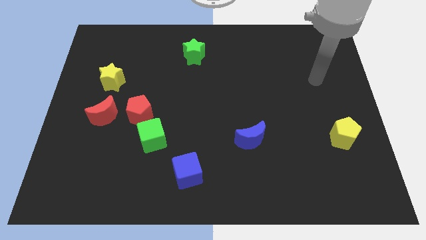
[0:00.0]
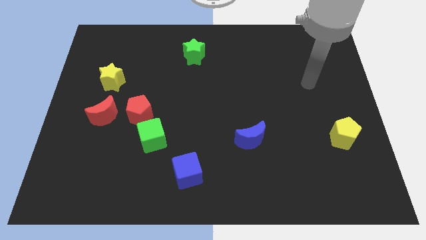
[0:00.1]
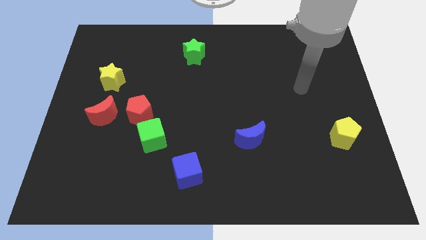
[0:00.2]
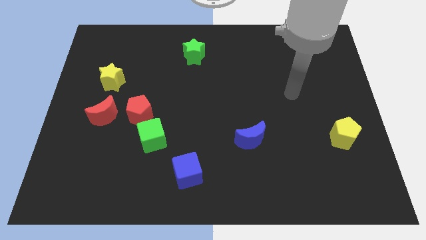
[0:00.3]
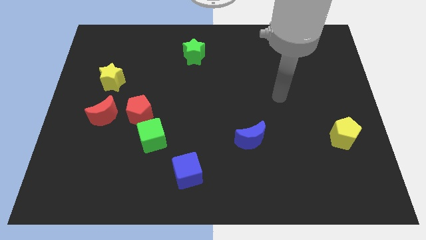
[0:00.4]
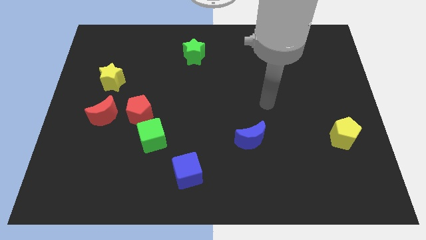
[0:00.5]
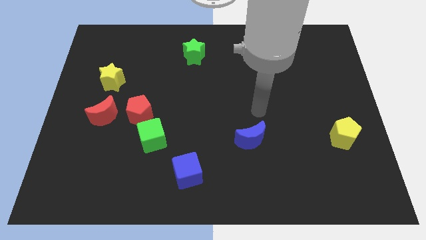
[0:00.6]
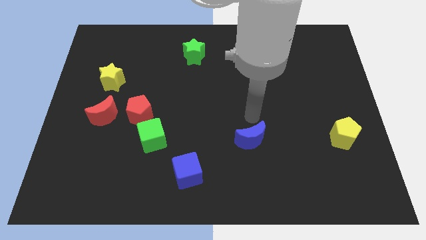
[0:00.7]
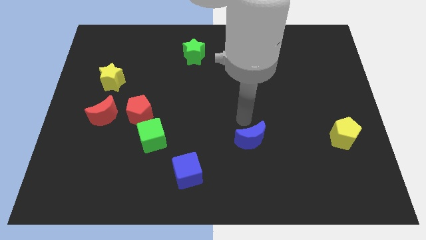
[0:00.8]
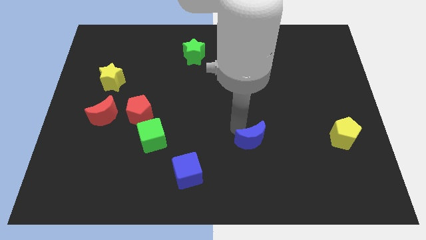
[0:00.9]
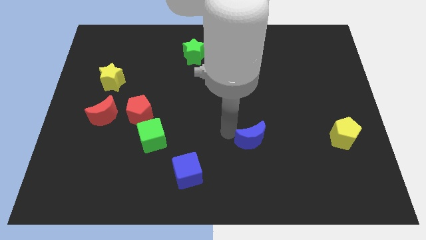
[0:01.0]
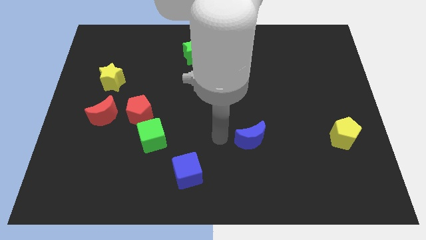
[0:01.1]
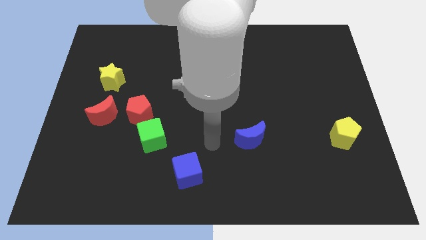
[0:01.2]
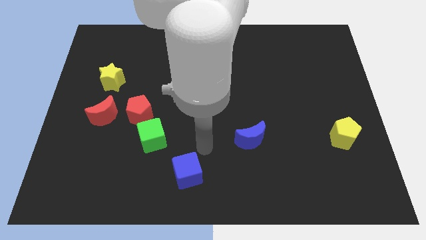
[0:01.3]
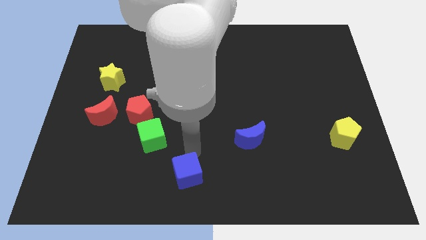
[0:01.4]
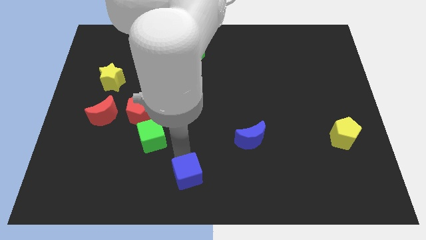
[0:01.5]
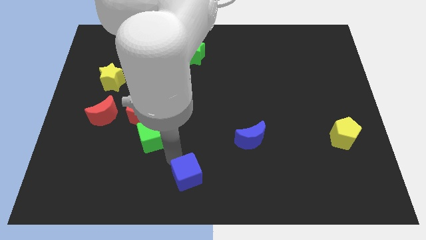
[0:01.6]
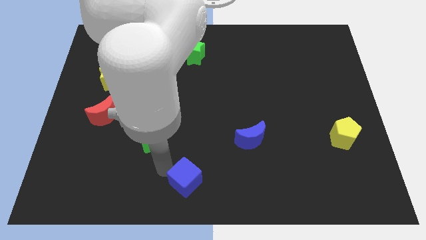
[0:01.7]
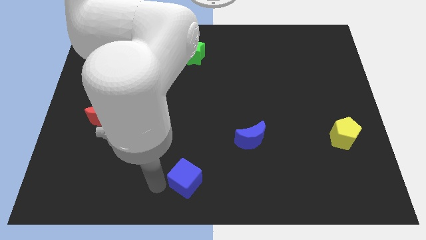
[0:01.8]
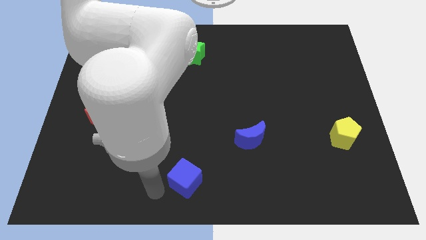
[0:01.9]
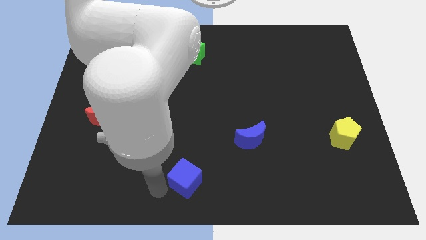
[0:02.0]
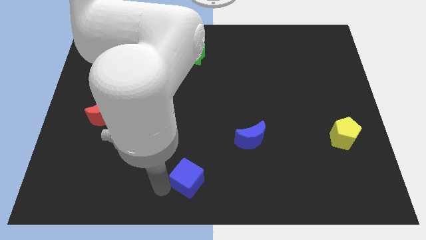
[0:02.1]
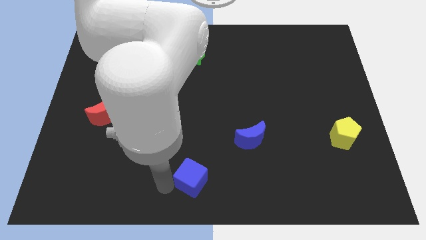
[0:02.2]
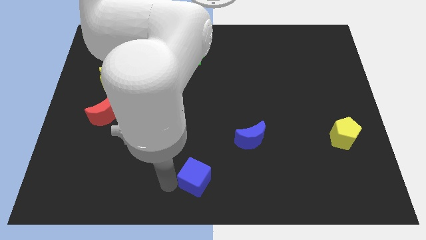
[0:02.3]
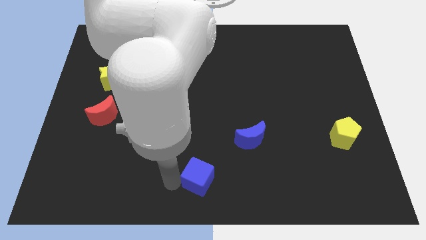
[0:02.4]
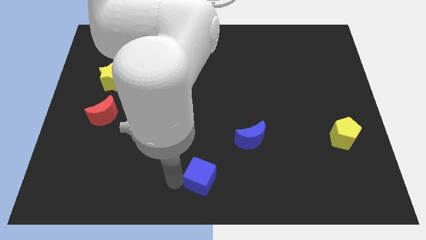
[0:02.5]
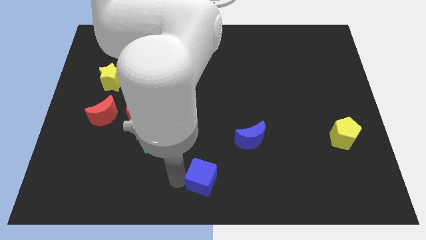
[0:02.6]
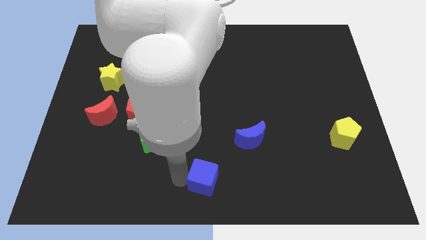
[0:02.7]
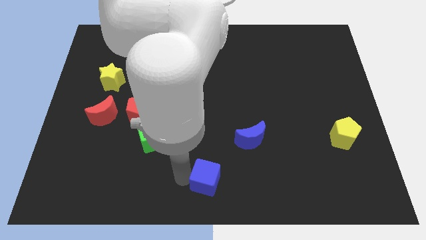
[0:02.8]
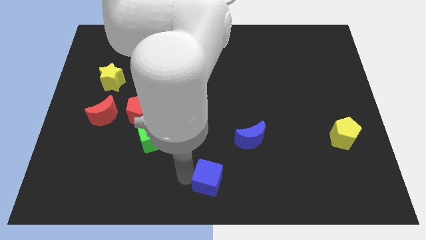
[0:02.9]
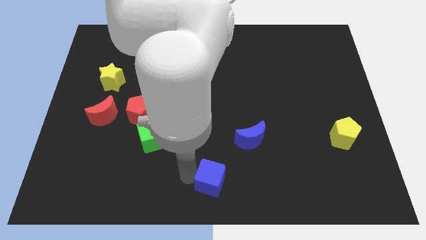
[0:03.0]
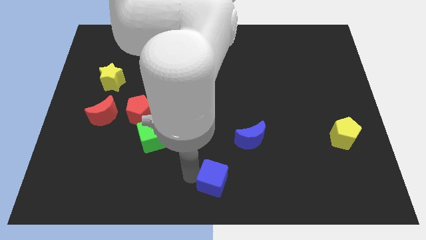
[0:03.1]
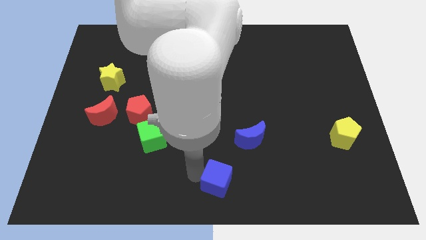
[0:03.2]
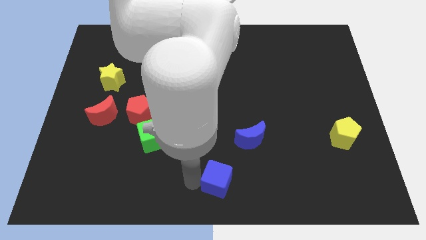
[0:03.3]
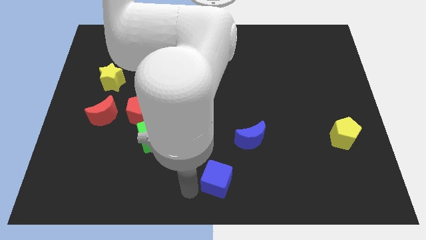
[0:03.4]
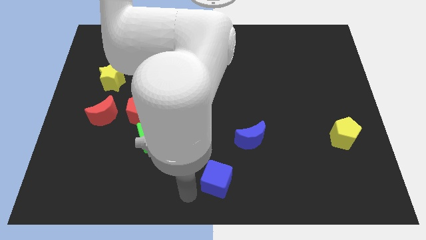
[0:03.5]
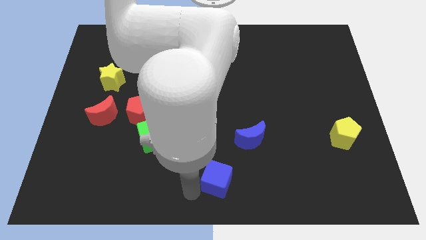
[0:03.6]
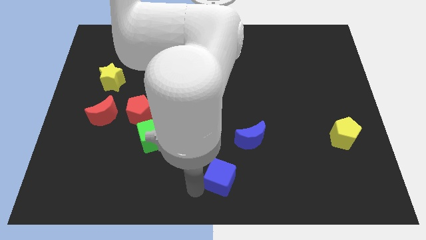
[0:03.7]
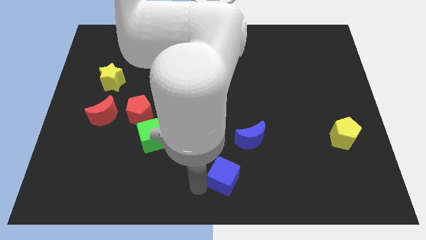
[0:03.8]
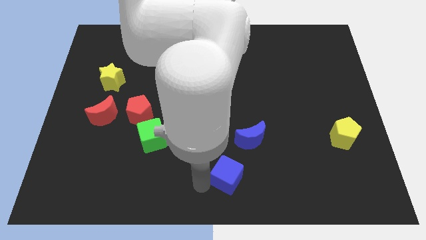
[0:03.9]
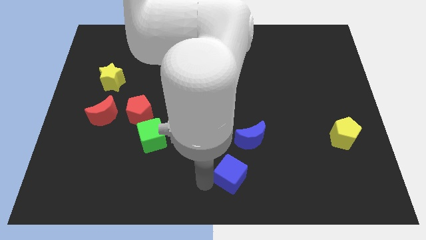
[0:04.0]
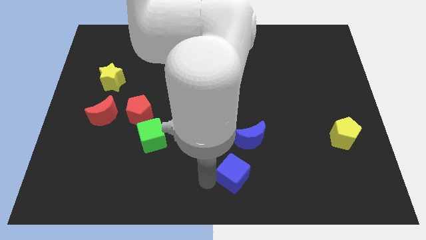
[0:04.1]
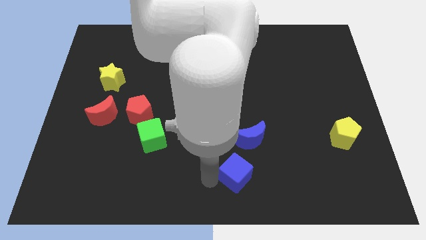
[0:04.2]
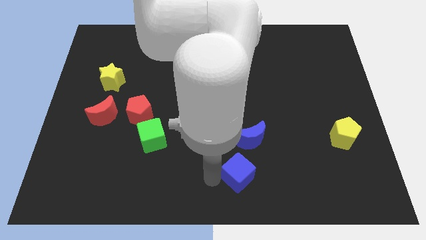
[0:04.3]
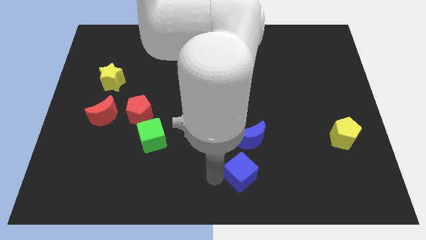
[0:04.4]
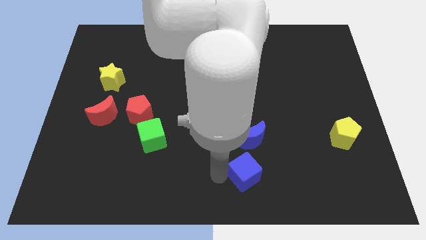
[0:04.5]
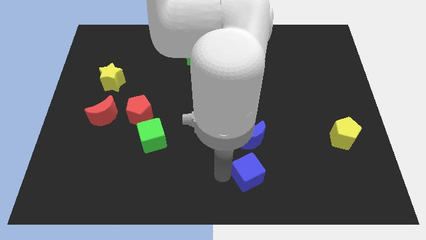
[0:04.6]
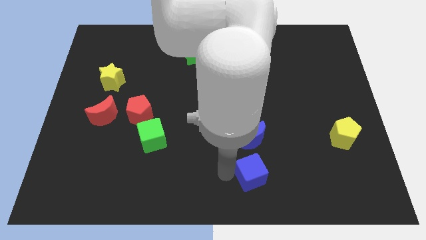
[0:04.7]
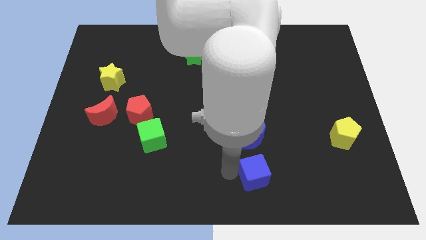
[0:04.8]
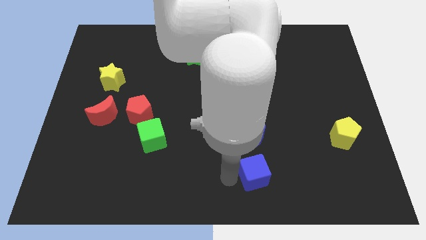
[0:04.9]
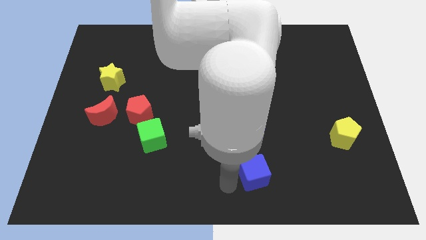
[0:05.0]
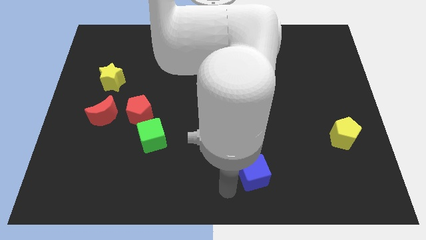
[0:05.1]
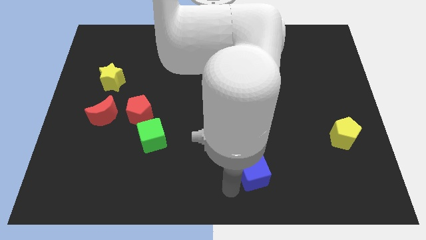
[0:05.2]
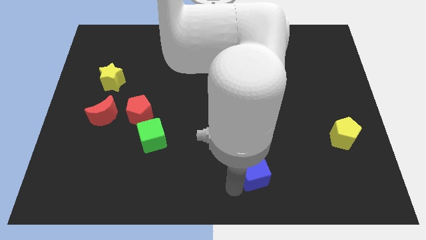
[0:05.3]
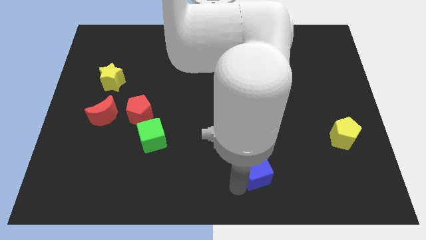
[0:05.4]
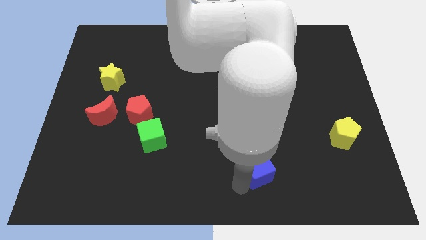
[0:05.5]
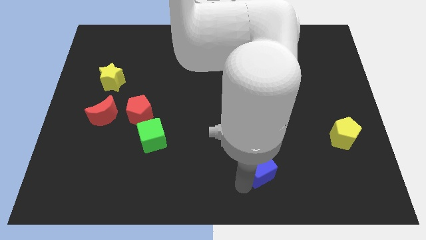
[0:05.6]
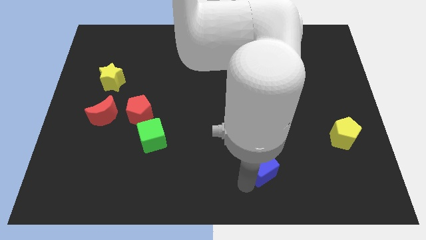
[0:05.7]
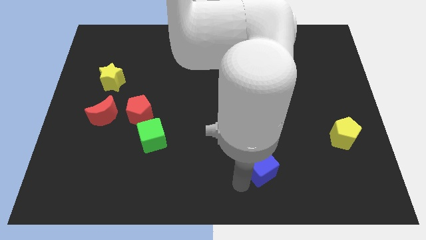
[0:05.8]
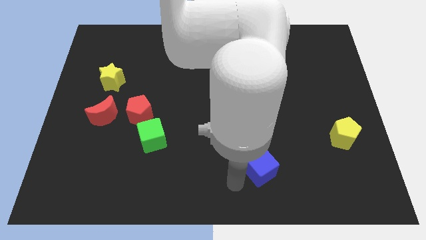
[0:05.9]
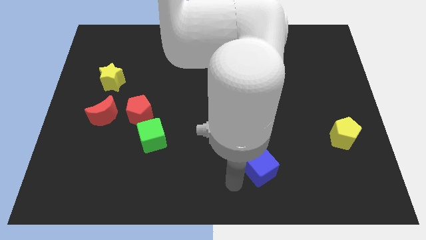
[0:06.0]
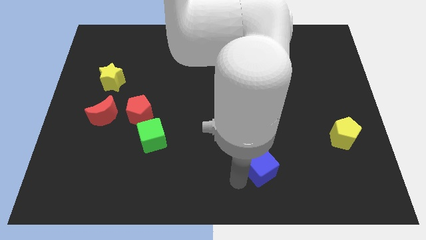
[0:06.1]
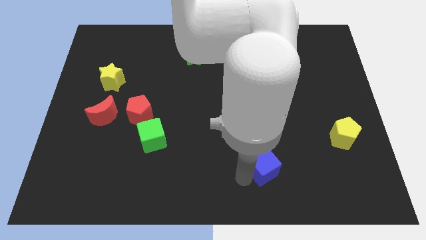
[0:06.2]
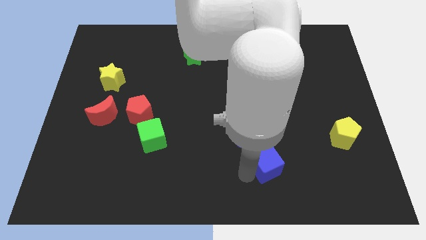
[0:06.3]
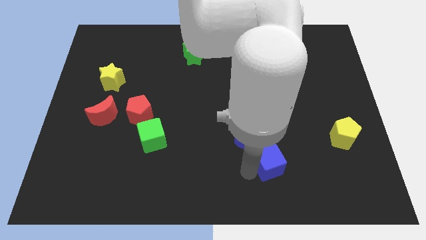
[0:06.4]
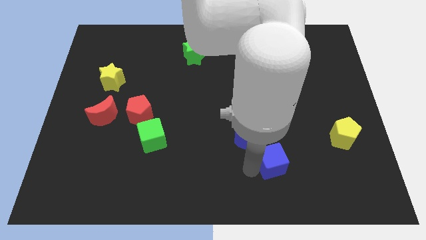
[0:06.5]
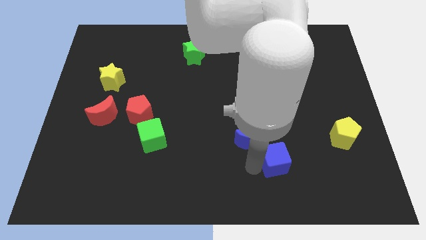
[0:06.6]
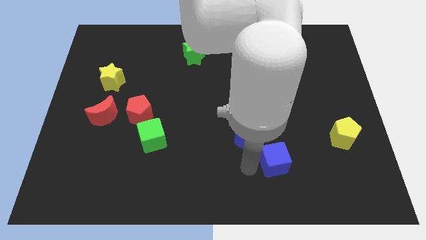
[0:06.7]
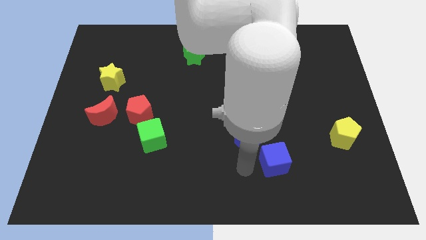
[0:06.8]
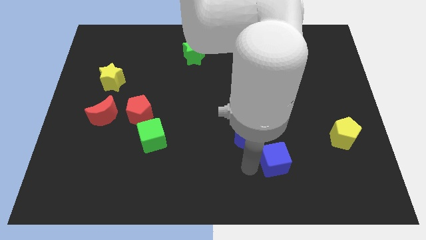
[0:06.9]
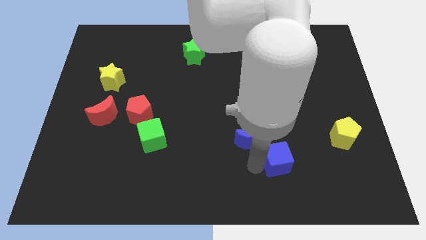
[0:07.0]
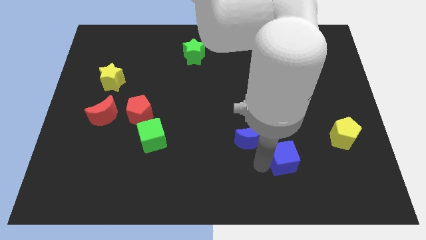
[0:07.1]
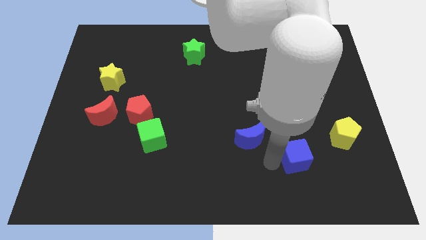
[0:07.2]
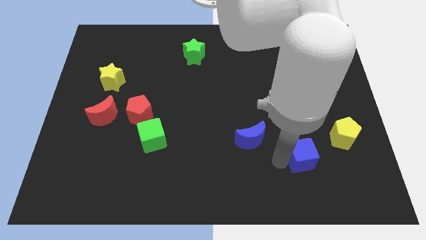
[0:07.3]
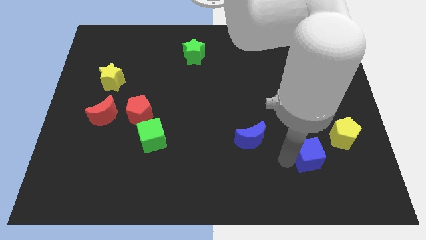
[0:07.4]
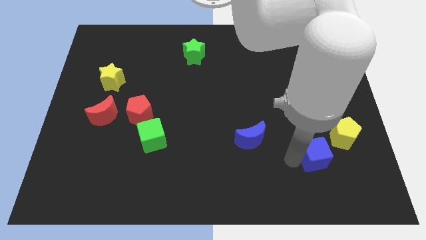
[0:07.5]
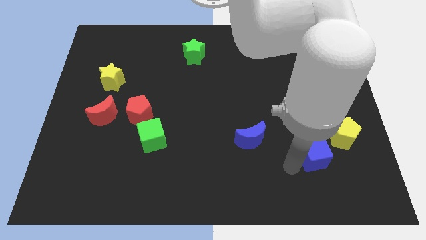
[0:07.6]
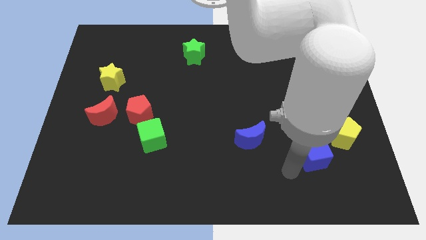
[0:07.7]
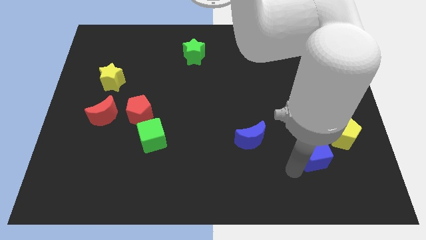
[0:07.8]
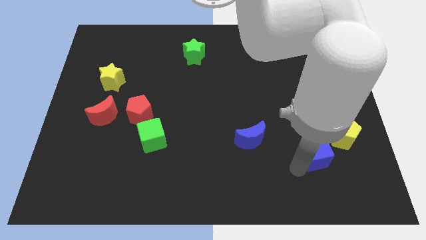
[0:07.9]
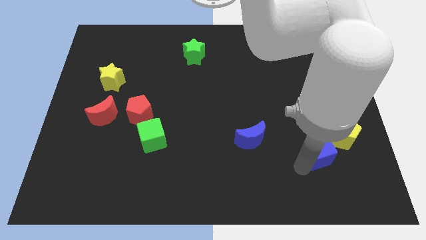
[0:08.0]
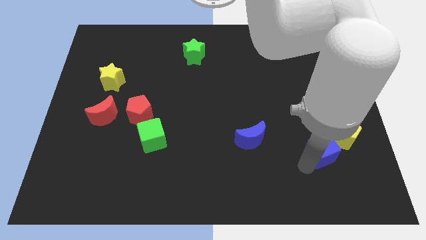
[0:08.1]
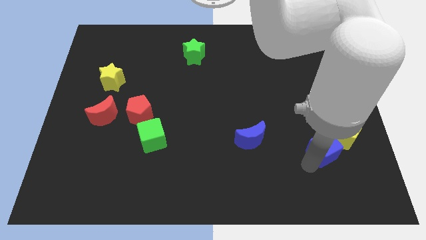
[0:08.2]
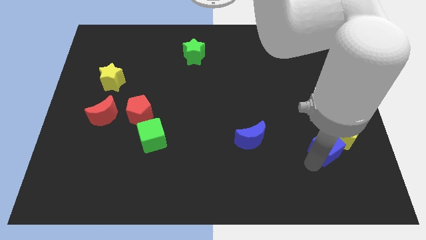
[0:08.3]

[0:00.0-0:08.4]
slide the blue cube close to the yellow pentagon
